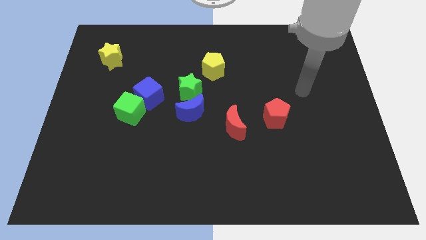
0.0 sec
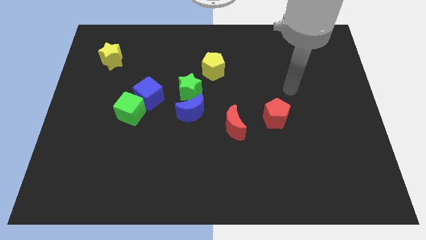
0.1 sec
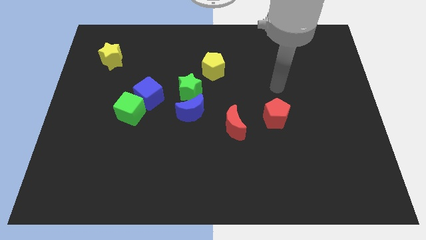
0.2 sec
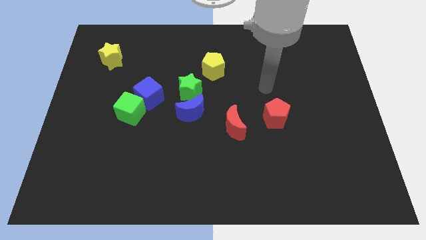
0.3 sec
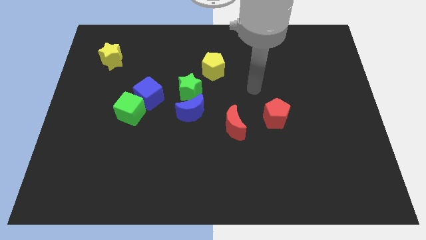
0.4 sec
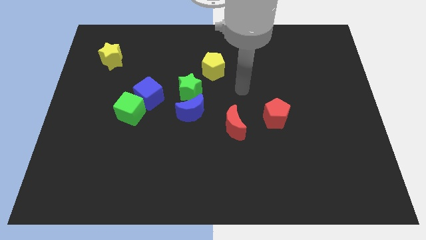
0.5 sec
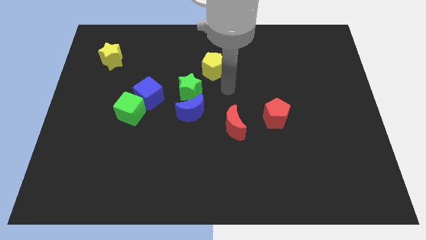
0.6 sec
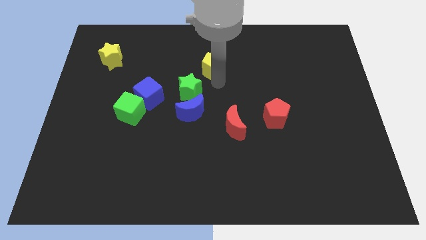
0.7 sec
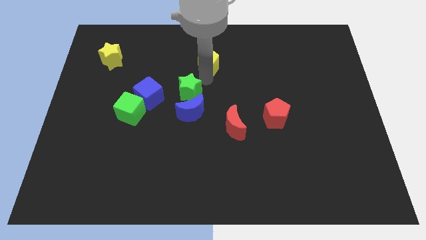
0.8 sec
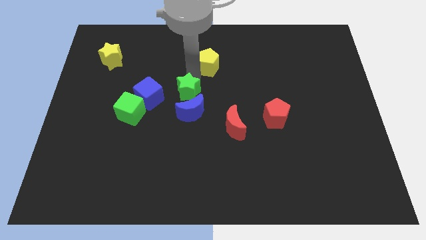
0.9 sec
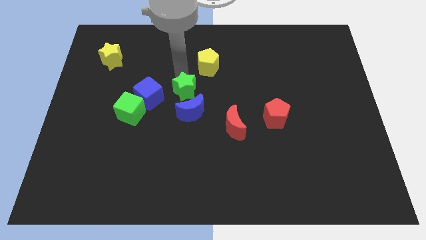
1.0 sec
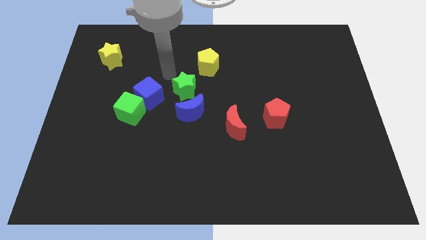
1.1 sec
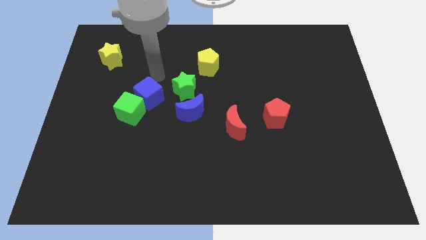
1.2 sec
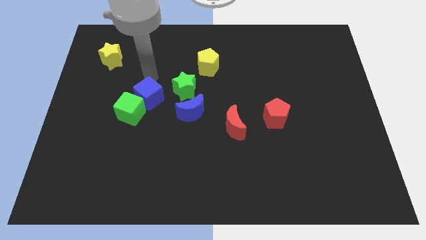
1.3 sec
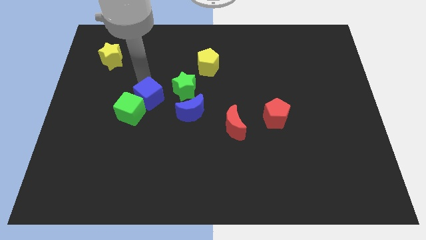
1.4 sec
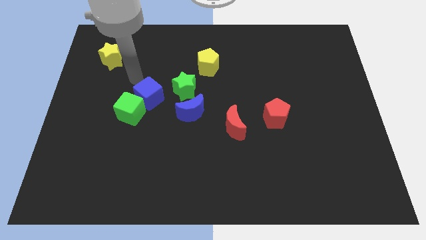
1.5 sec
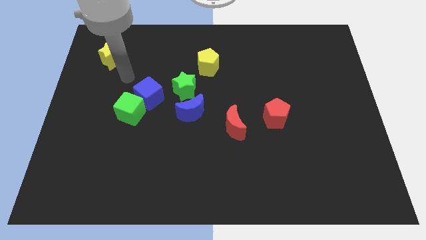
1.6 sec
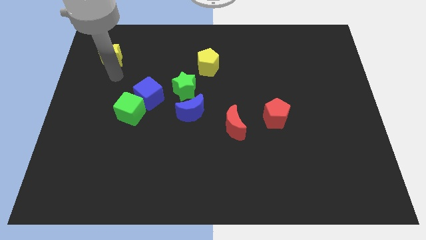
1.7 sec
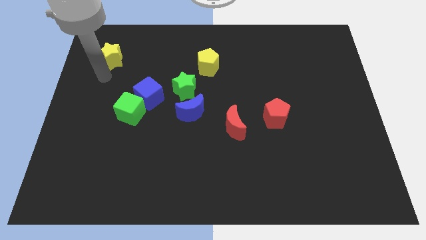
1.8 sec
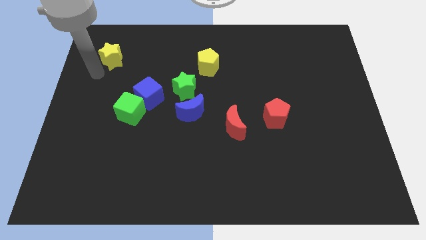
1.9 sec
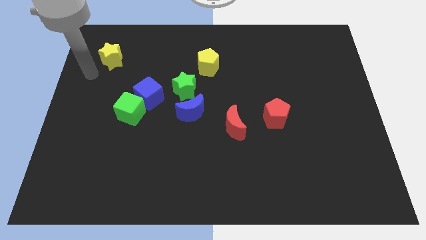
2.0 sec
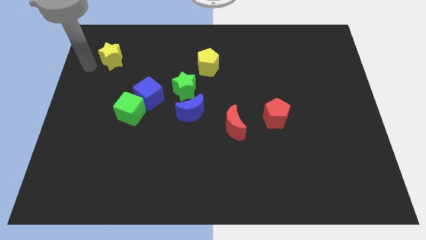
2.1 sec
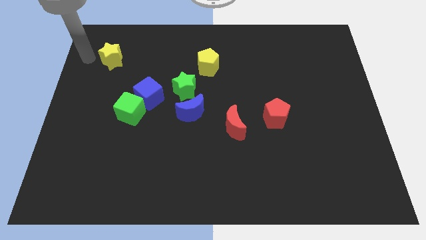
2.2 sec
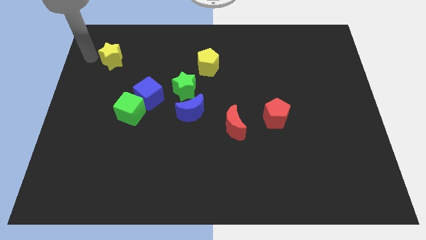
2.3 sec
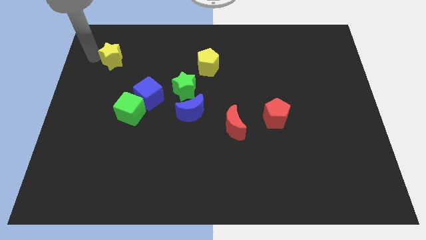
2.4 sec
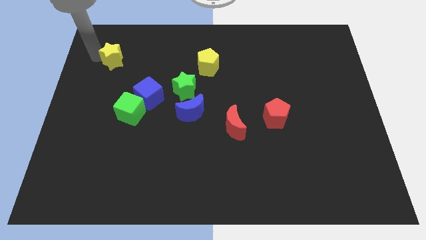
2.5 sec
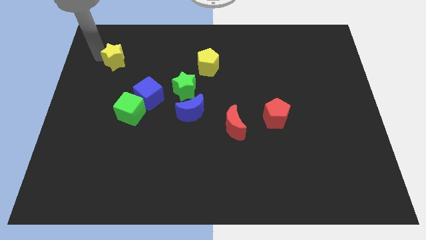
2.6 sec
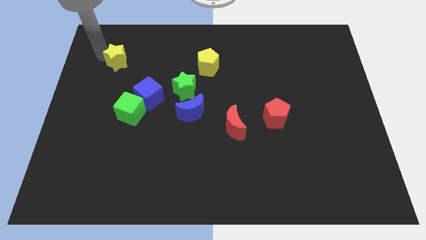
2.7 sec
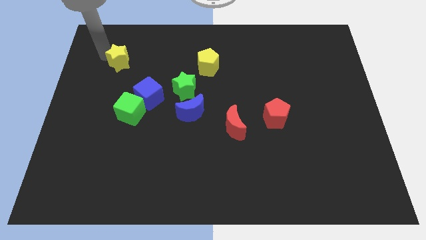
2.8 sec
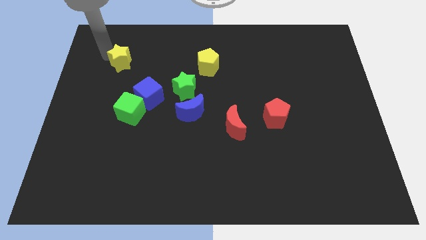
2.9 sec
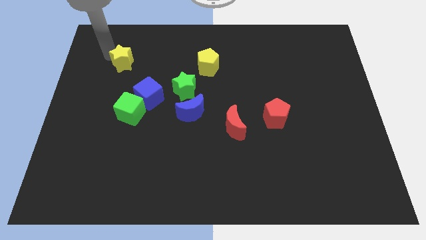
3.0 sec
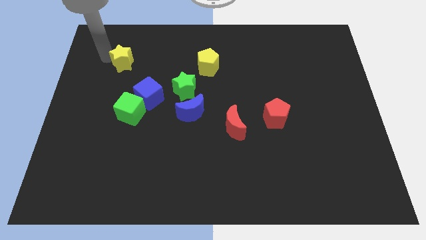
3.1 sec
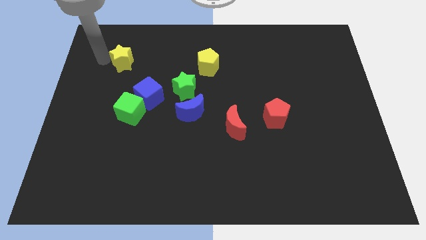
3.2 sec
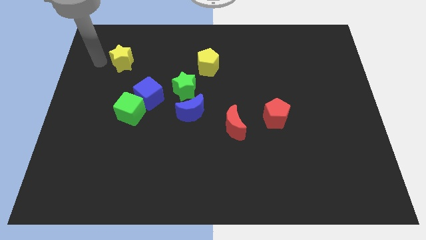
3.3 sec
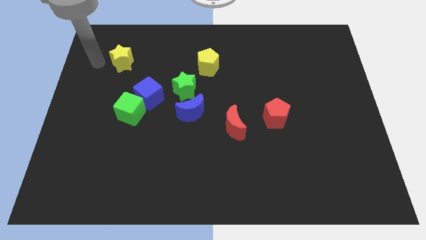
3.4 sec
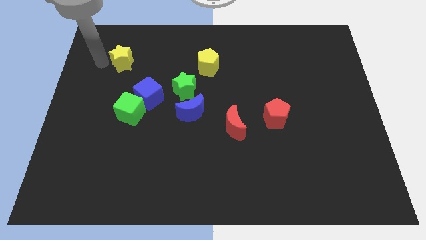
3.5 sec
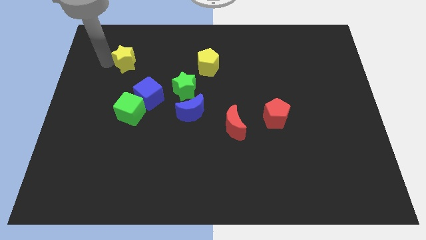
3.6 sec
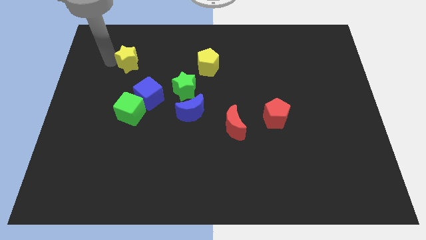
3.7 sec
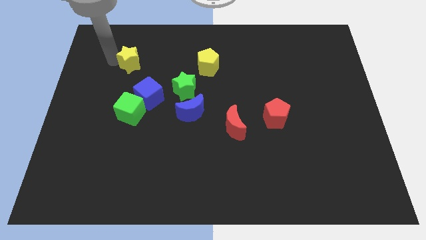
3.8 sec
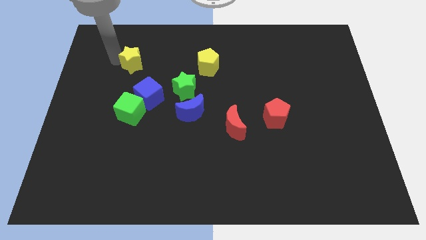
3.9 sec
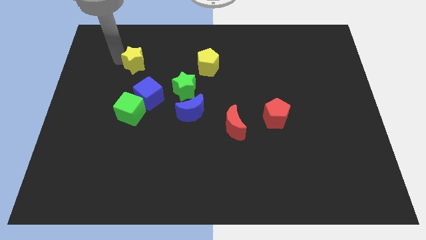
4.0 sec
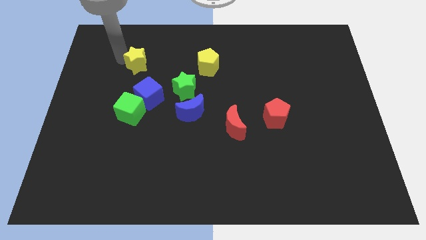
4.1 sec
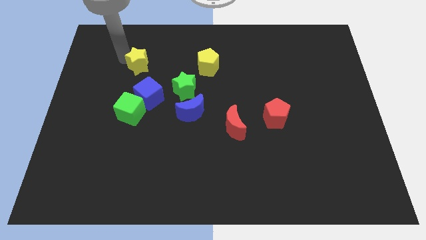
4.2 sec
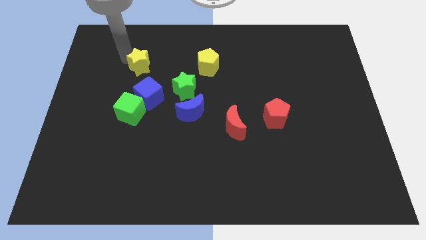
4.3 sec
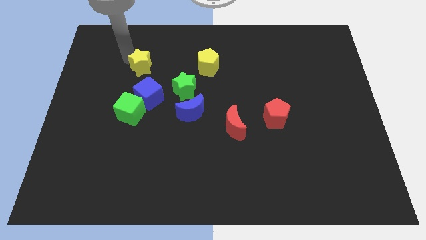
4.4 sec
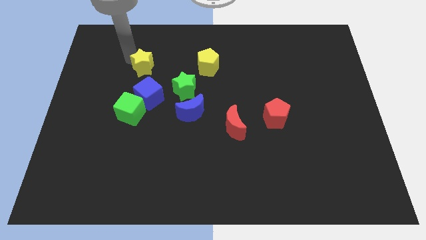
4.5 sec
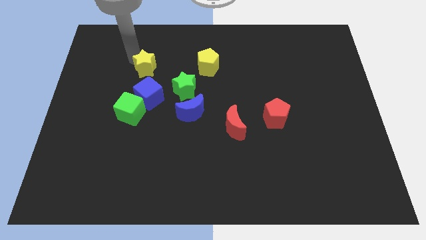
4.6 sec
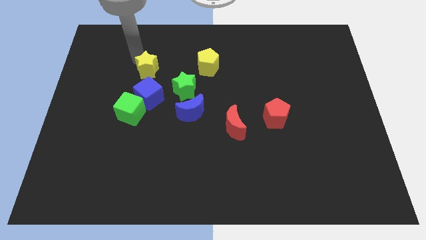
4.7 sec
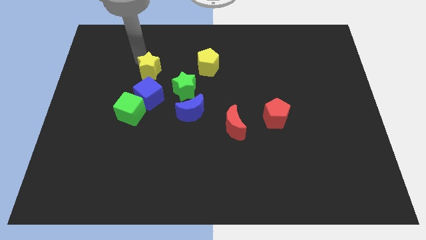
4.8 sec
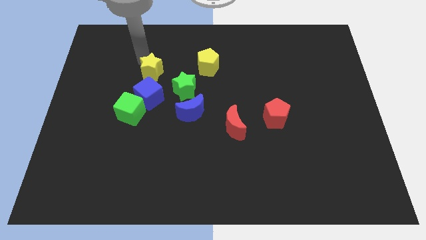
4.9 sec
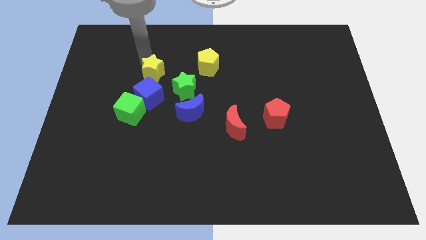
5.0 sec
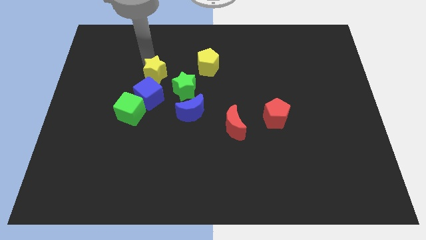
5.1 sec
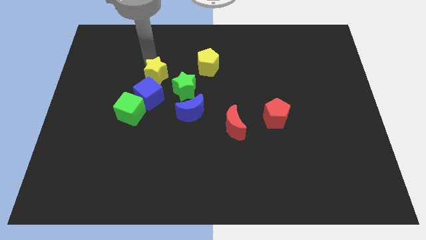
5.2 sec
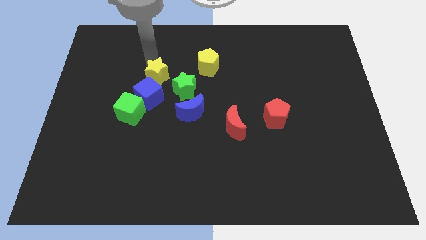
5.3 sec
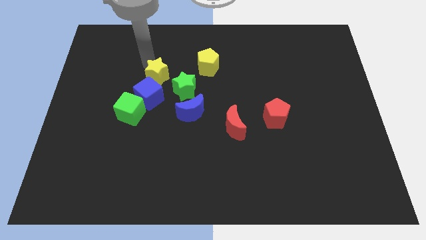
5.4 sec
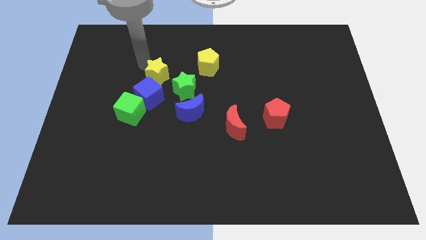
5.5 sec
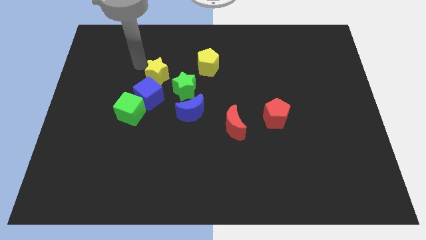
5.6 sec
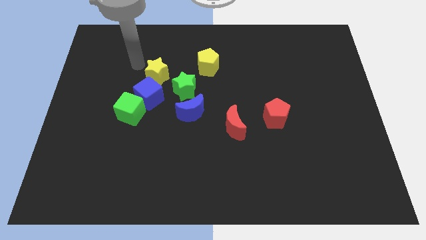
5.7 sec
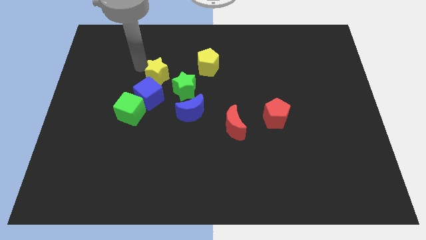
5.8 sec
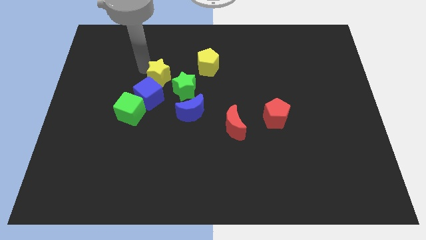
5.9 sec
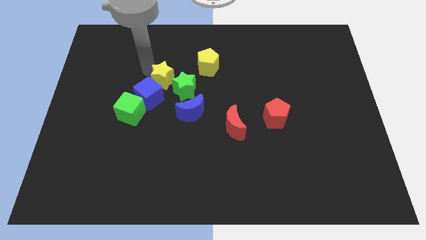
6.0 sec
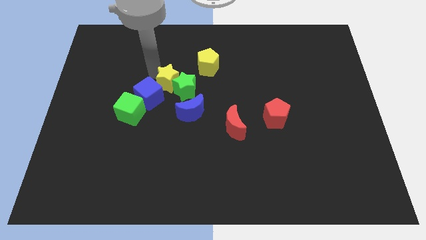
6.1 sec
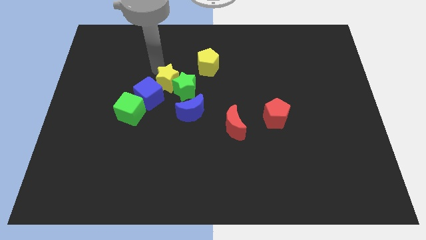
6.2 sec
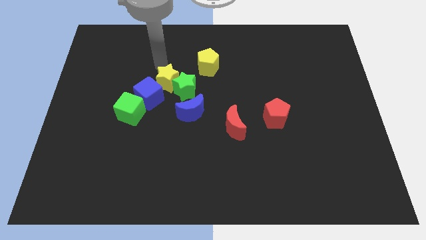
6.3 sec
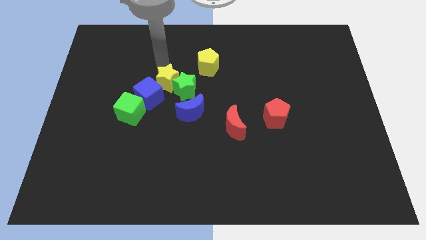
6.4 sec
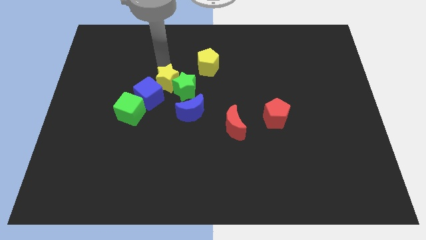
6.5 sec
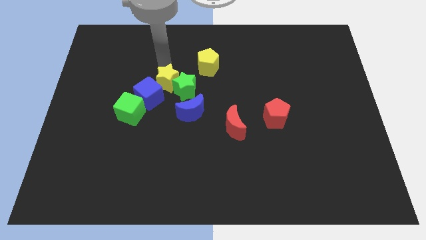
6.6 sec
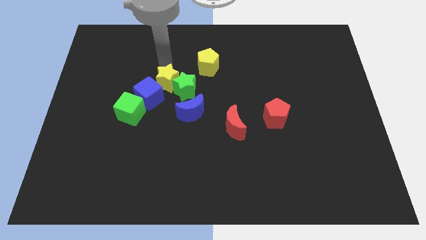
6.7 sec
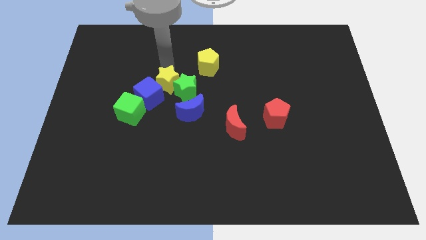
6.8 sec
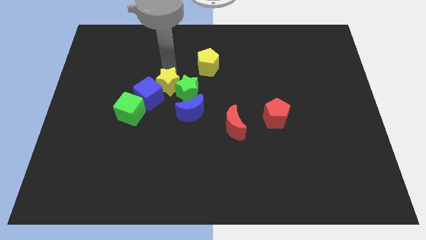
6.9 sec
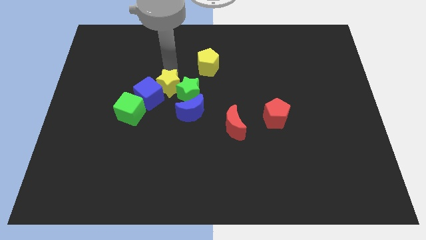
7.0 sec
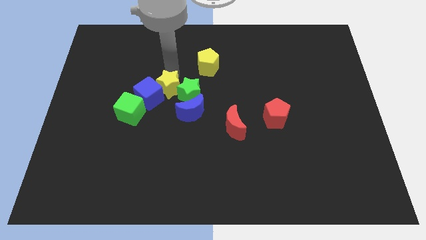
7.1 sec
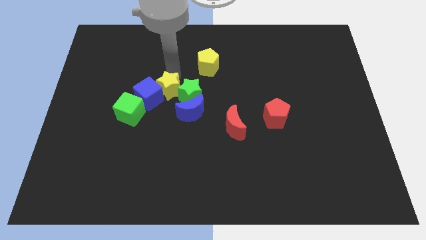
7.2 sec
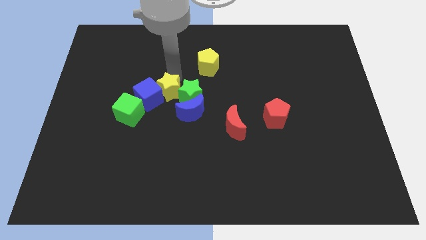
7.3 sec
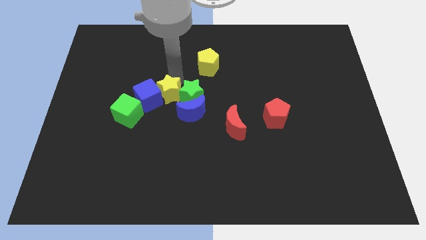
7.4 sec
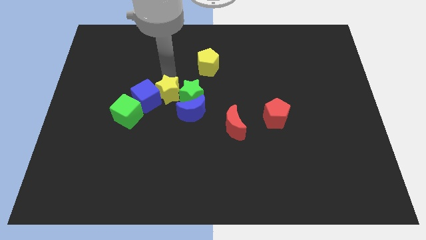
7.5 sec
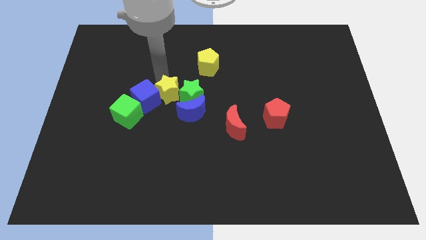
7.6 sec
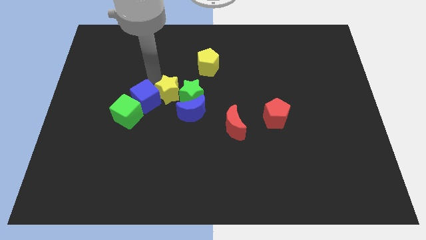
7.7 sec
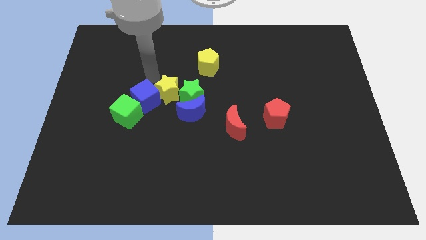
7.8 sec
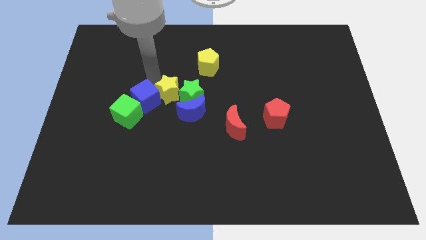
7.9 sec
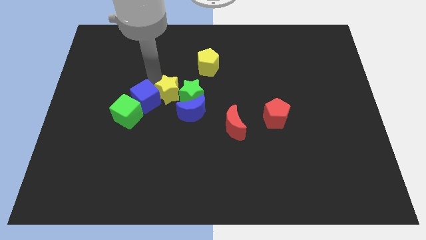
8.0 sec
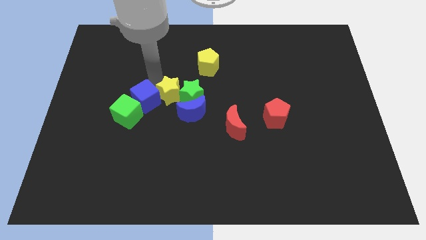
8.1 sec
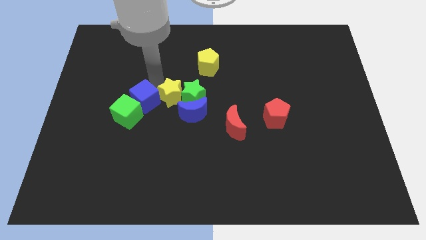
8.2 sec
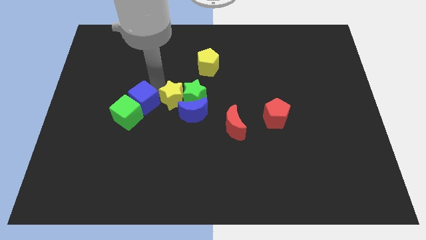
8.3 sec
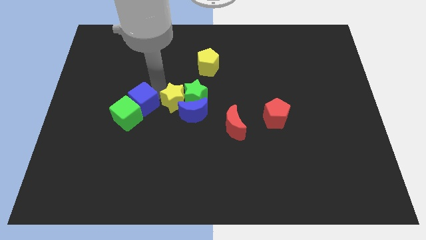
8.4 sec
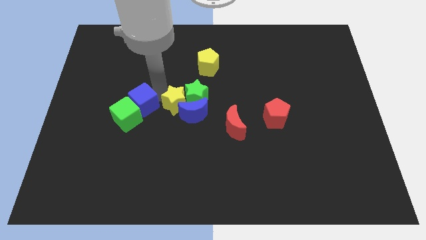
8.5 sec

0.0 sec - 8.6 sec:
slide the yellow star to the blue moon
